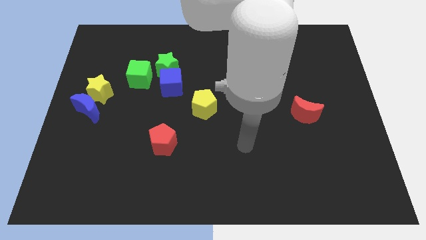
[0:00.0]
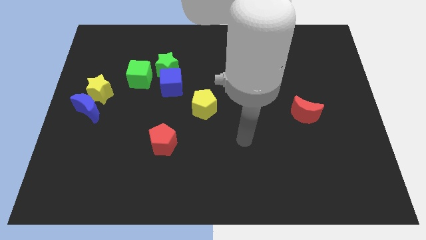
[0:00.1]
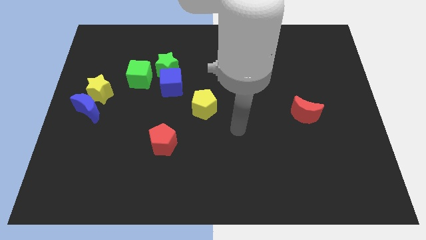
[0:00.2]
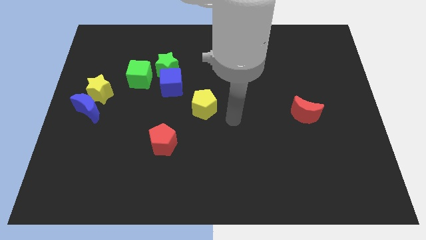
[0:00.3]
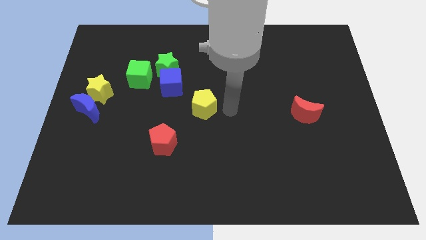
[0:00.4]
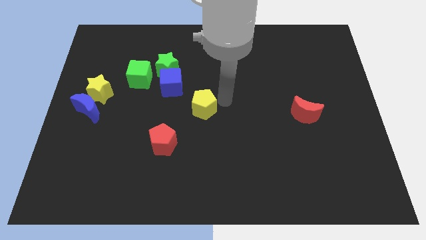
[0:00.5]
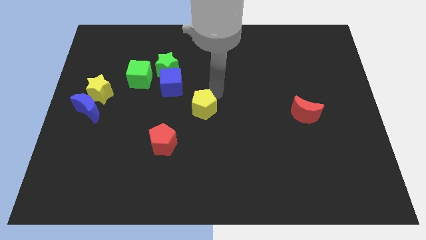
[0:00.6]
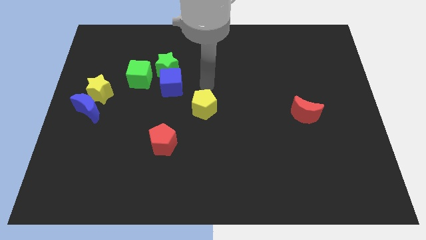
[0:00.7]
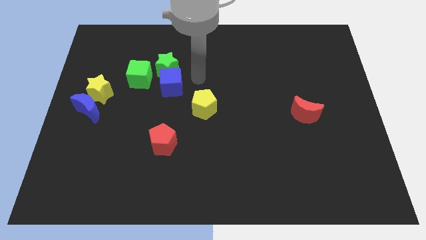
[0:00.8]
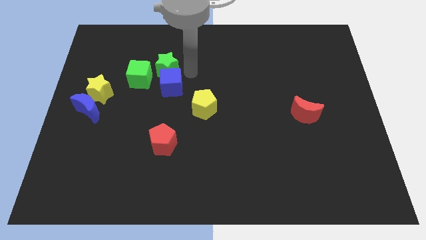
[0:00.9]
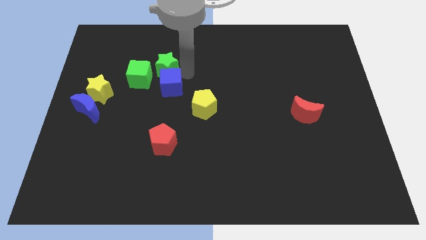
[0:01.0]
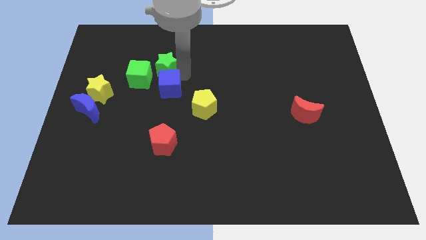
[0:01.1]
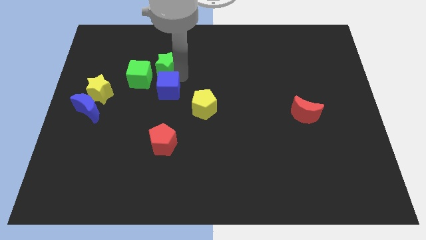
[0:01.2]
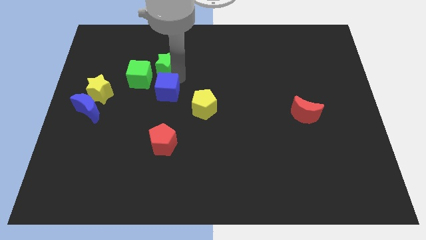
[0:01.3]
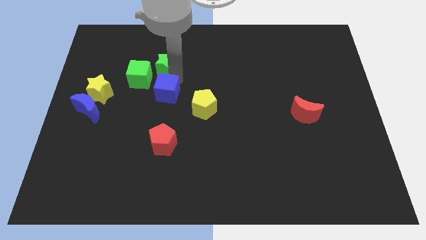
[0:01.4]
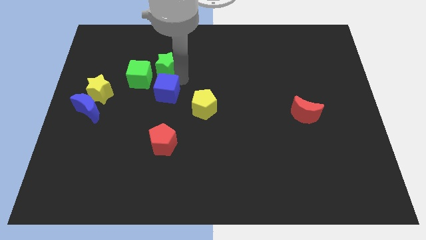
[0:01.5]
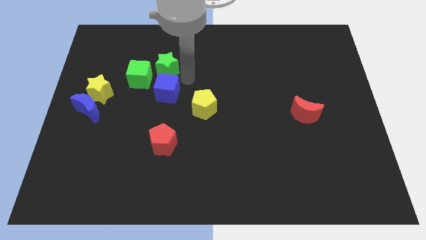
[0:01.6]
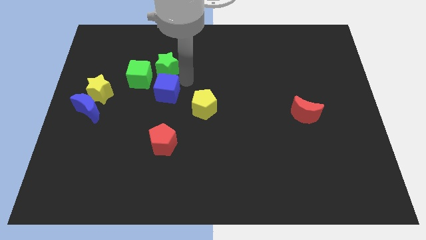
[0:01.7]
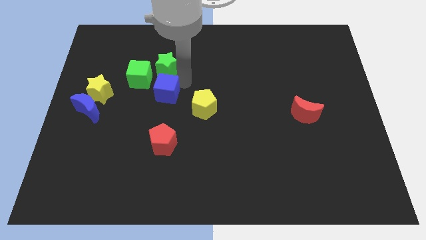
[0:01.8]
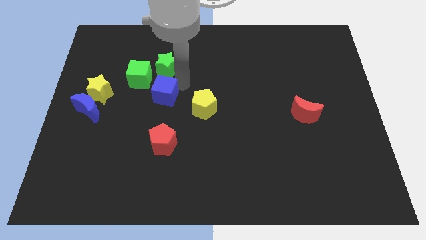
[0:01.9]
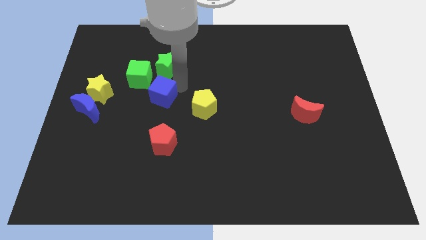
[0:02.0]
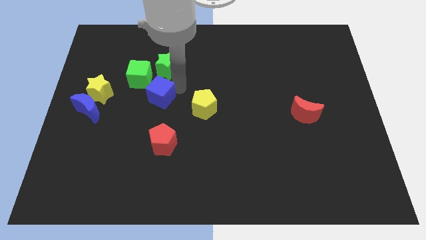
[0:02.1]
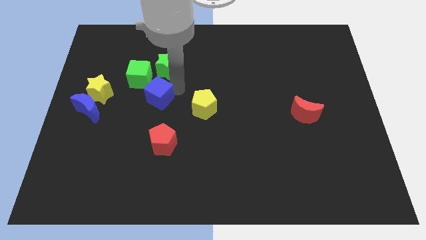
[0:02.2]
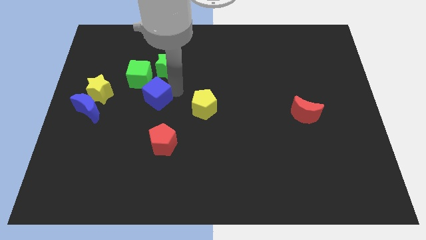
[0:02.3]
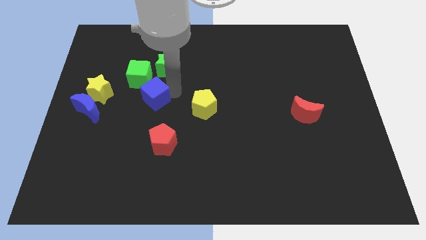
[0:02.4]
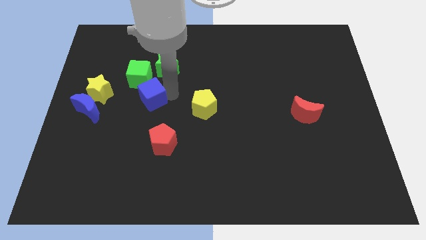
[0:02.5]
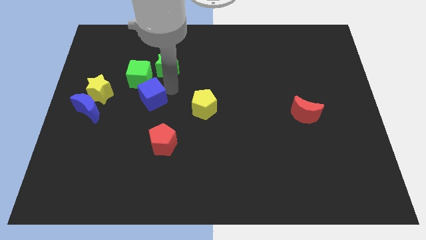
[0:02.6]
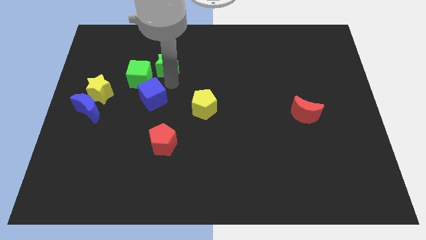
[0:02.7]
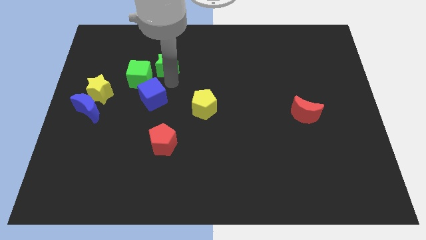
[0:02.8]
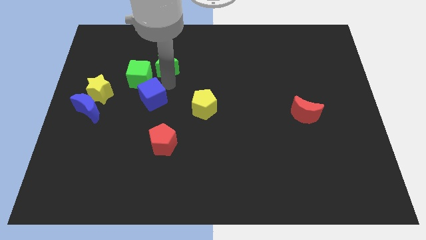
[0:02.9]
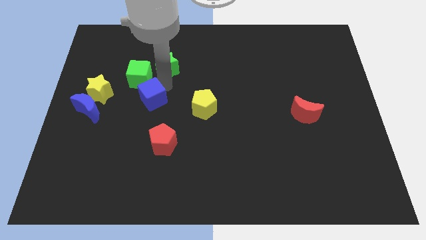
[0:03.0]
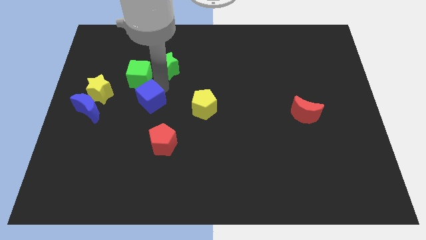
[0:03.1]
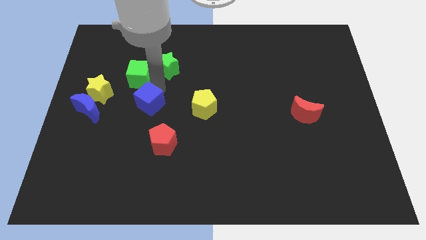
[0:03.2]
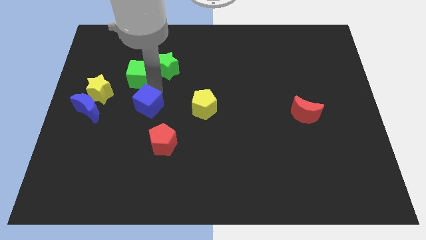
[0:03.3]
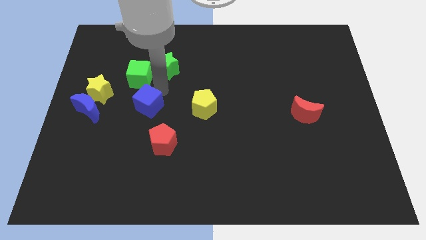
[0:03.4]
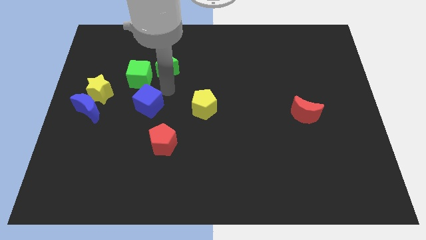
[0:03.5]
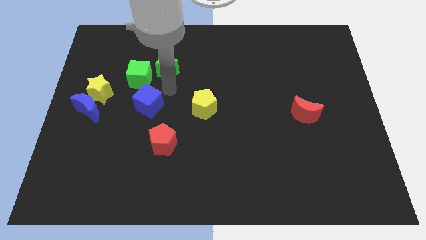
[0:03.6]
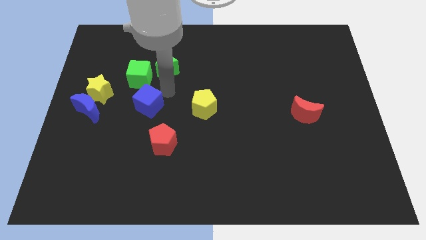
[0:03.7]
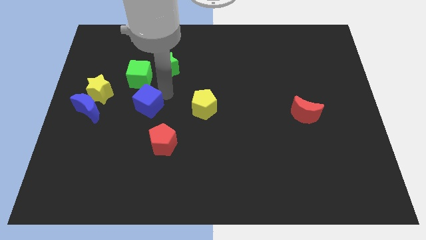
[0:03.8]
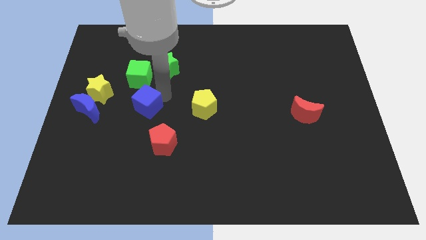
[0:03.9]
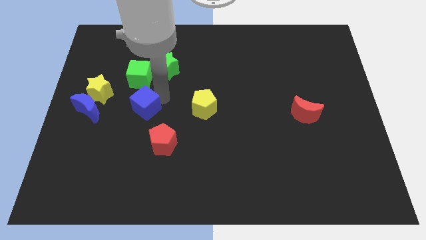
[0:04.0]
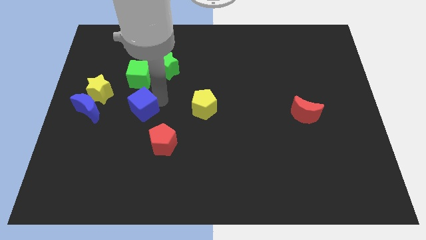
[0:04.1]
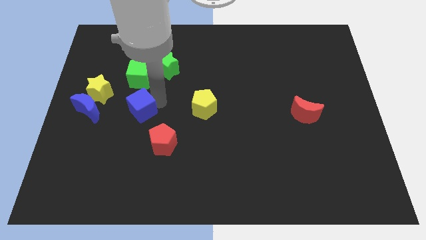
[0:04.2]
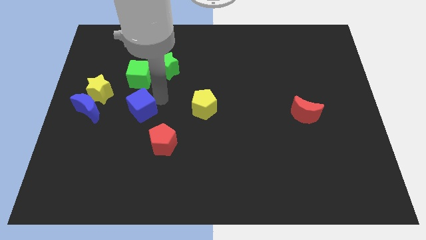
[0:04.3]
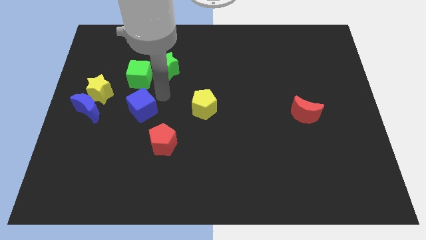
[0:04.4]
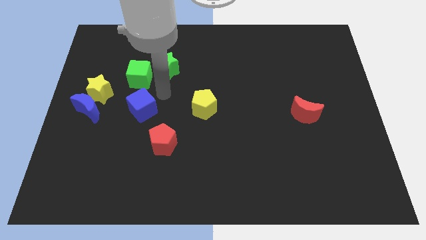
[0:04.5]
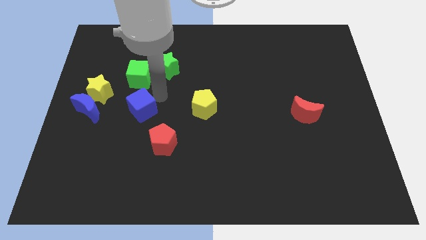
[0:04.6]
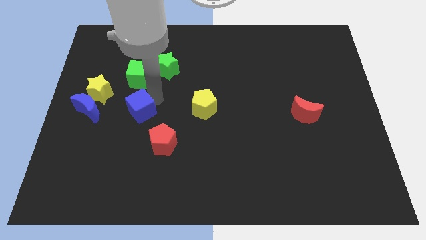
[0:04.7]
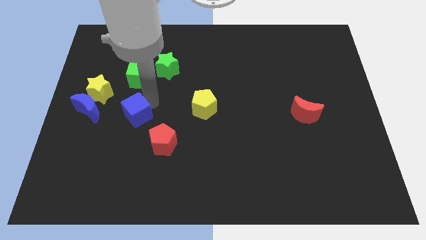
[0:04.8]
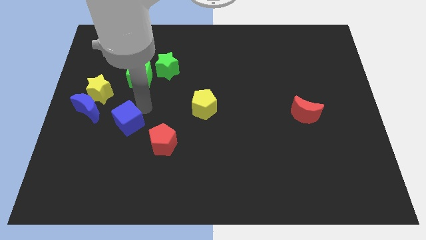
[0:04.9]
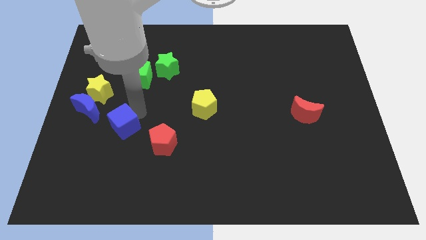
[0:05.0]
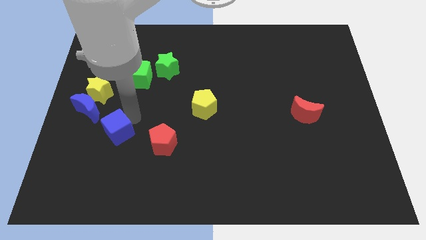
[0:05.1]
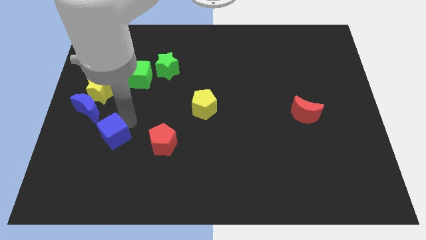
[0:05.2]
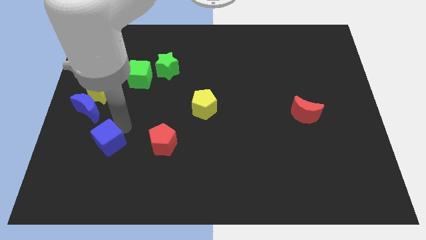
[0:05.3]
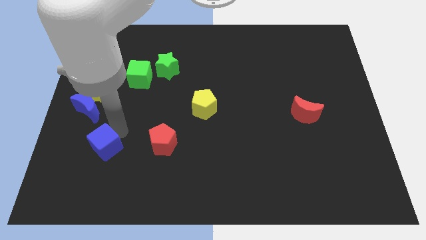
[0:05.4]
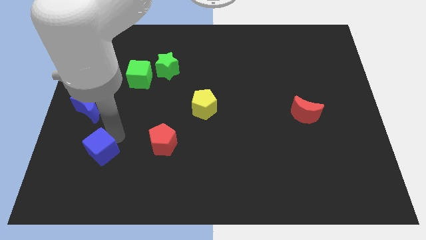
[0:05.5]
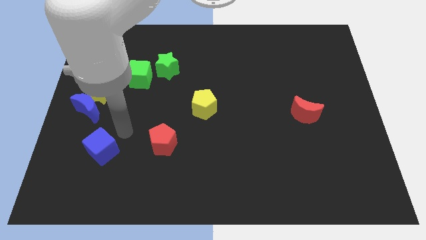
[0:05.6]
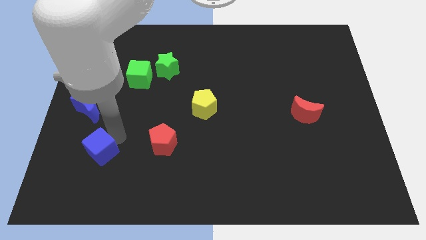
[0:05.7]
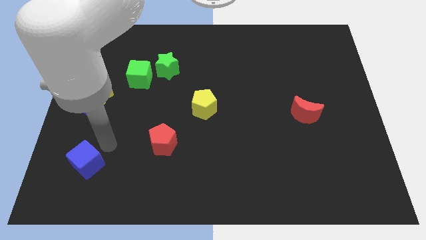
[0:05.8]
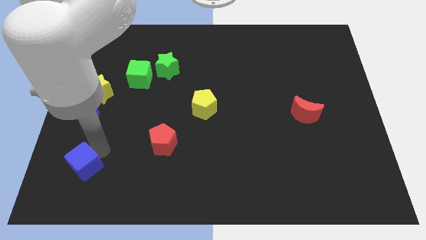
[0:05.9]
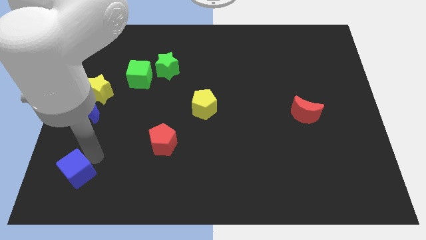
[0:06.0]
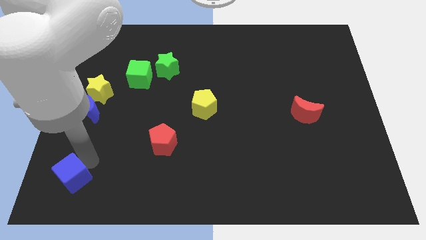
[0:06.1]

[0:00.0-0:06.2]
push the blue cube to the bottom left
